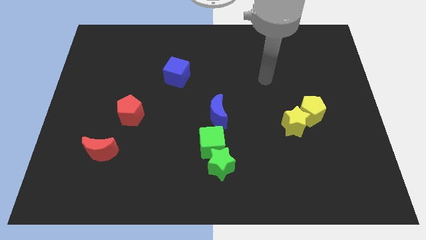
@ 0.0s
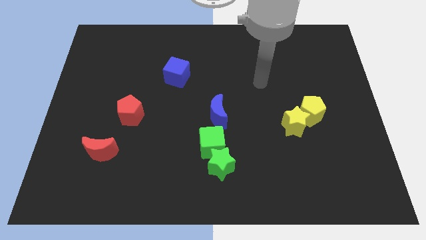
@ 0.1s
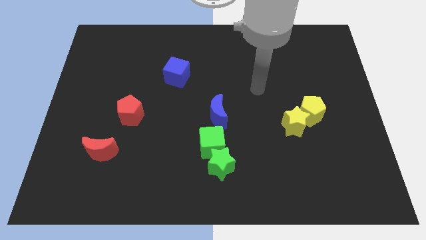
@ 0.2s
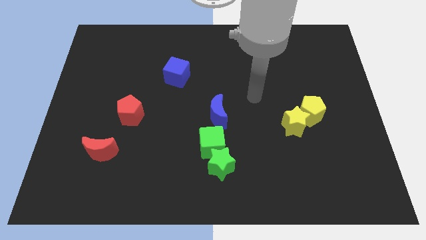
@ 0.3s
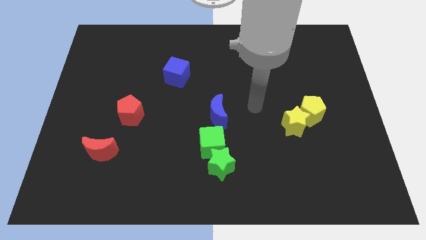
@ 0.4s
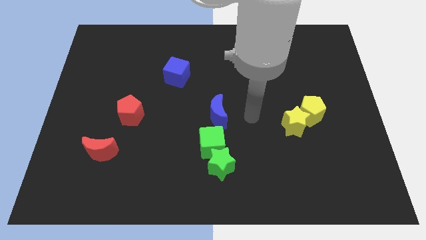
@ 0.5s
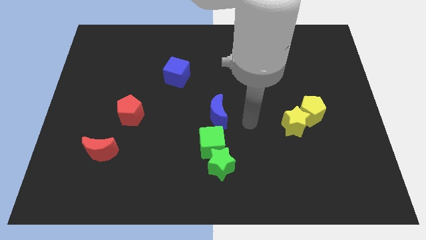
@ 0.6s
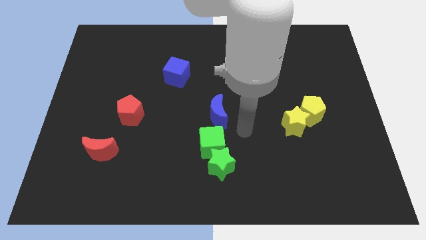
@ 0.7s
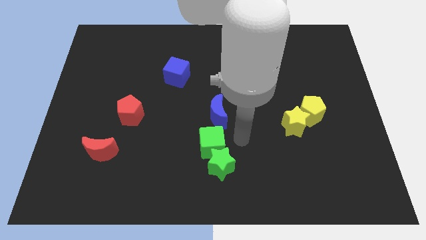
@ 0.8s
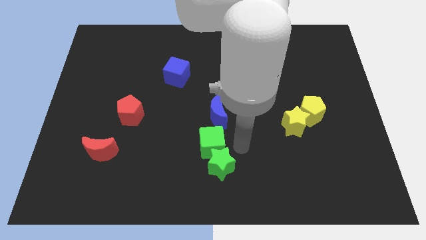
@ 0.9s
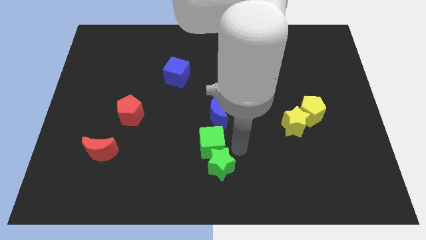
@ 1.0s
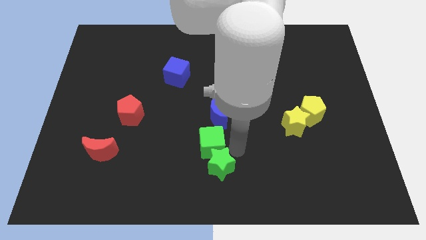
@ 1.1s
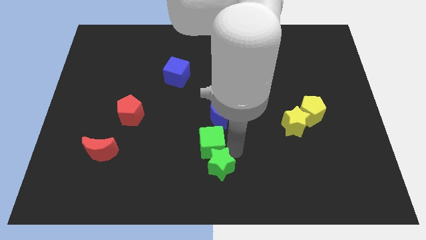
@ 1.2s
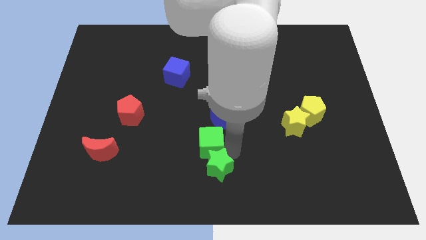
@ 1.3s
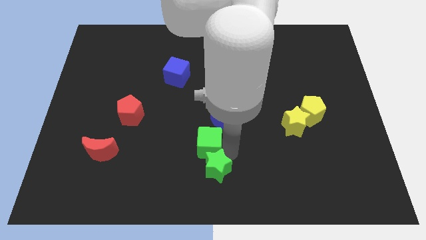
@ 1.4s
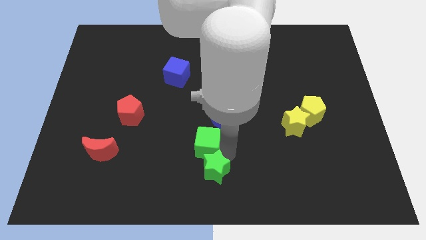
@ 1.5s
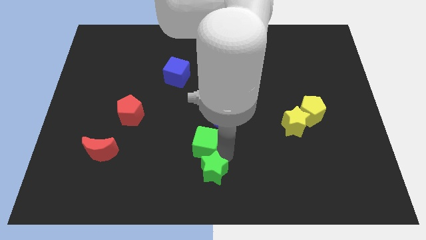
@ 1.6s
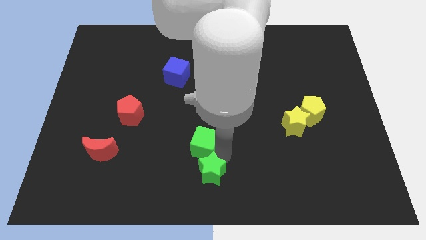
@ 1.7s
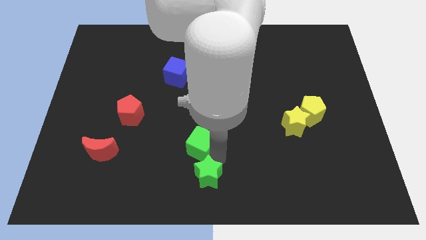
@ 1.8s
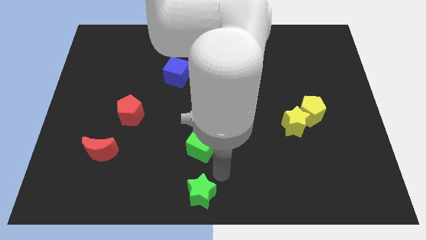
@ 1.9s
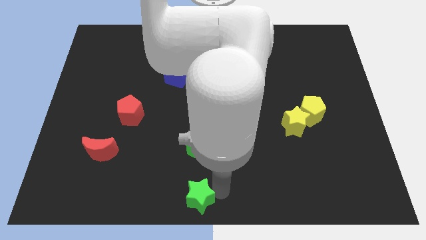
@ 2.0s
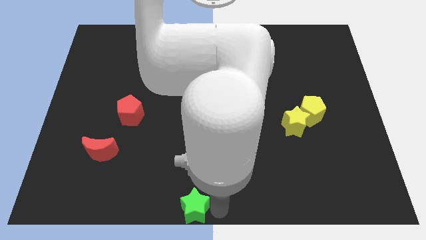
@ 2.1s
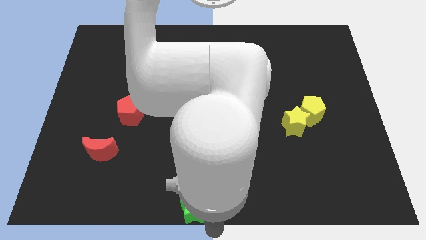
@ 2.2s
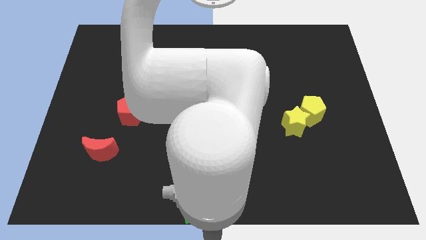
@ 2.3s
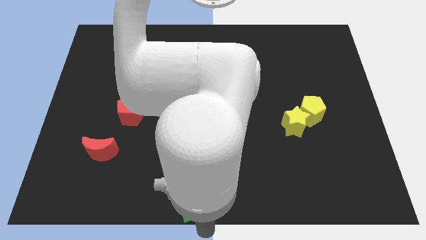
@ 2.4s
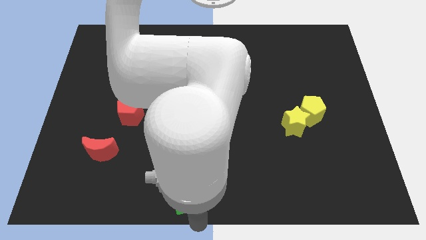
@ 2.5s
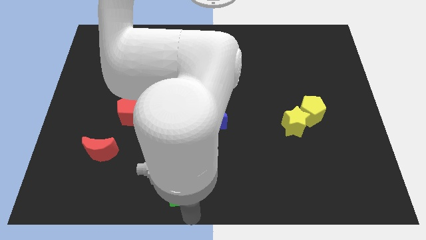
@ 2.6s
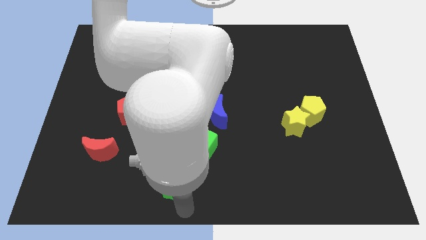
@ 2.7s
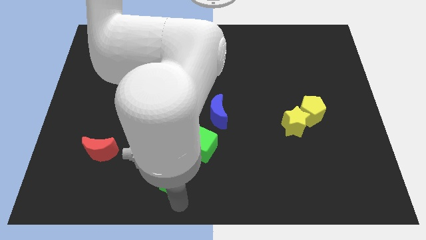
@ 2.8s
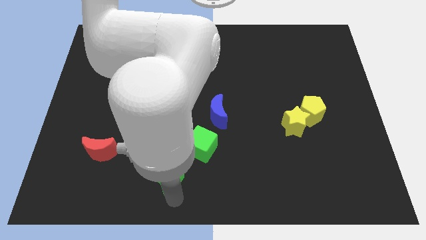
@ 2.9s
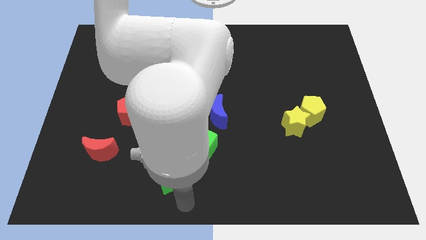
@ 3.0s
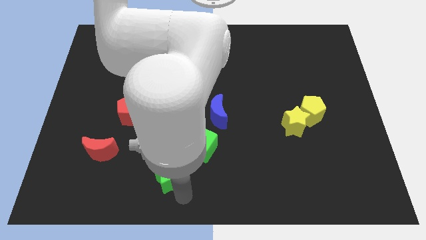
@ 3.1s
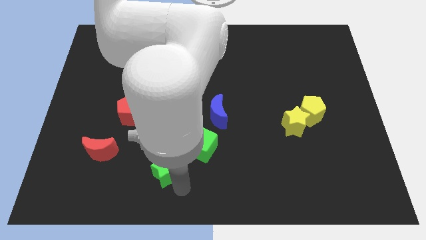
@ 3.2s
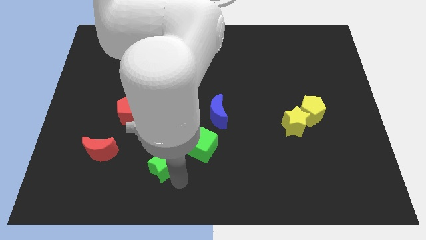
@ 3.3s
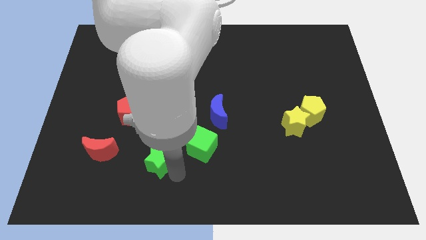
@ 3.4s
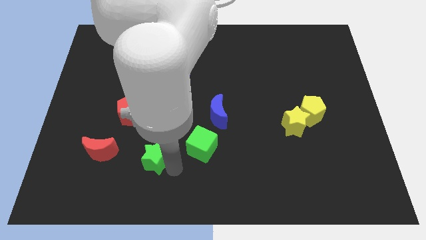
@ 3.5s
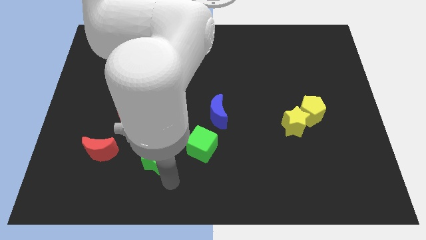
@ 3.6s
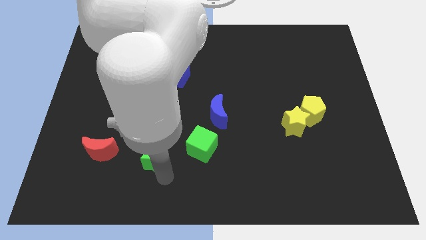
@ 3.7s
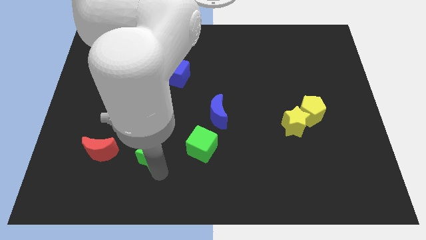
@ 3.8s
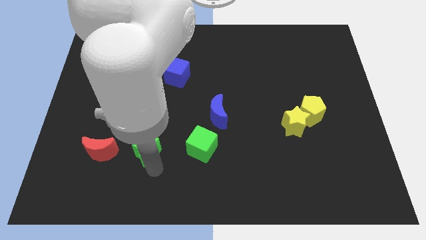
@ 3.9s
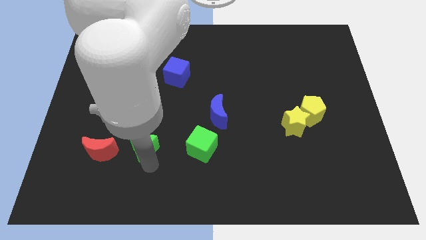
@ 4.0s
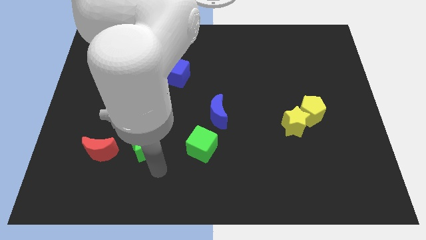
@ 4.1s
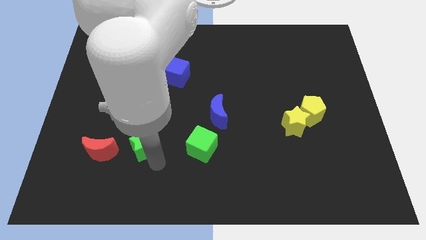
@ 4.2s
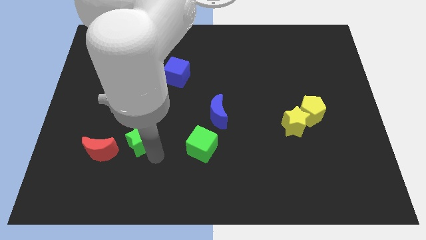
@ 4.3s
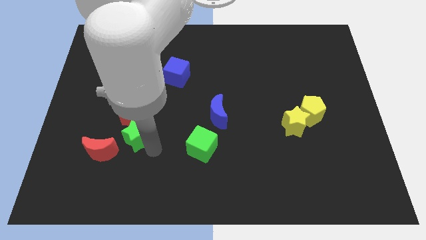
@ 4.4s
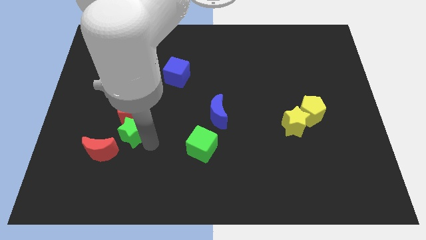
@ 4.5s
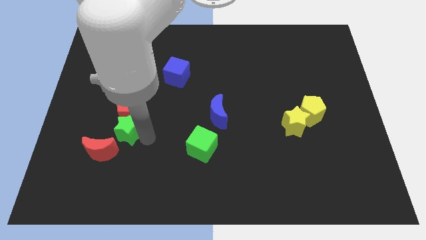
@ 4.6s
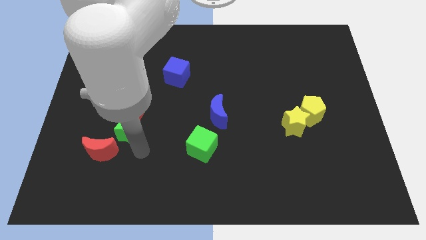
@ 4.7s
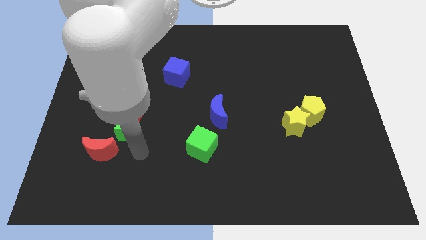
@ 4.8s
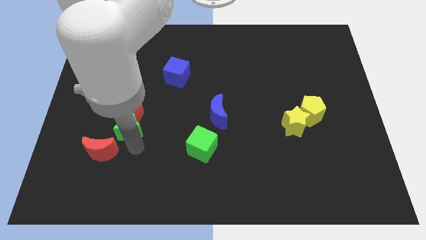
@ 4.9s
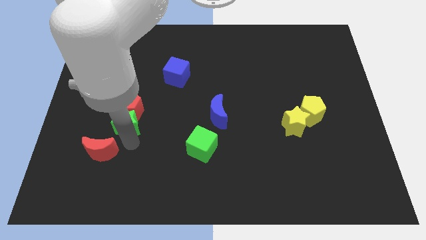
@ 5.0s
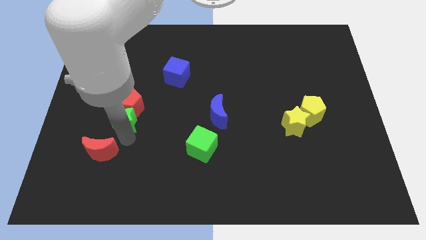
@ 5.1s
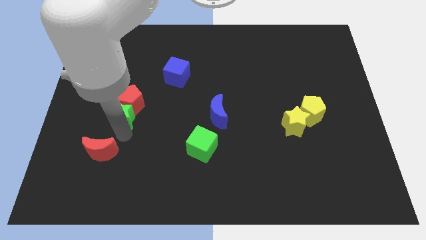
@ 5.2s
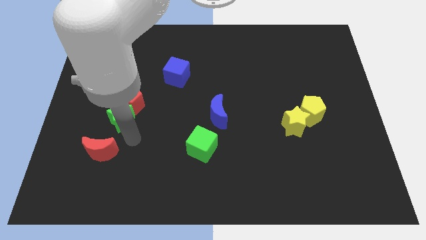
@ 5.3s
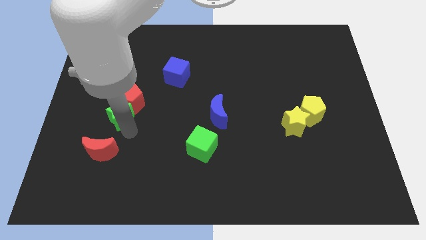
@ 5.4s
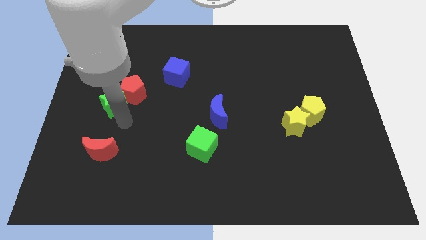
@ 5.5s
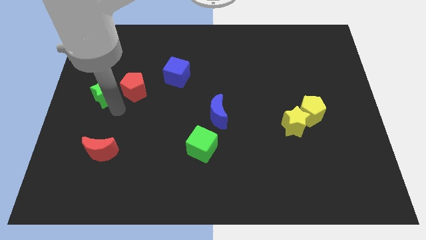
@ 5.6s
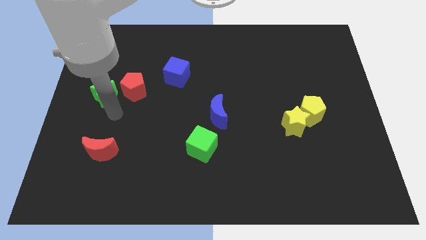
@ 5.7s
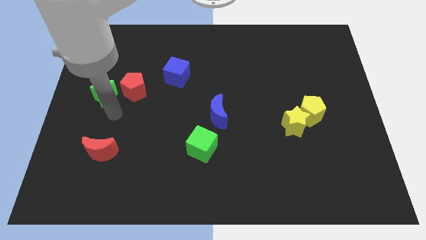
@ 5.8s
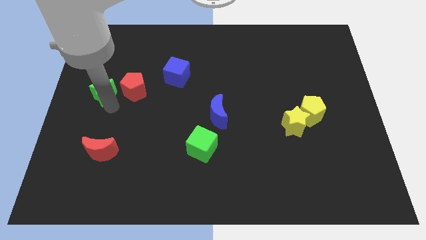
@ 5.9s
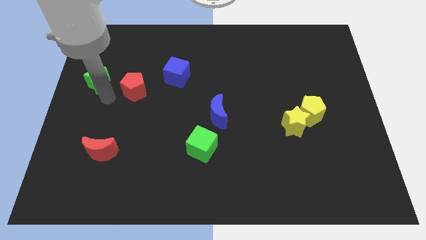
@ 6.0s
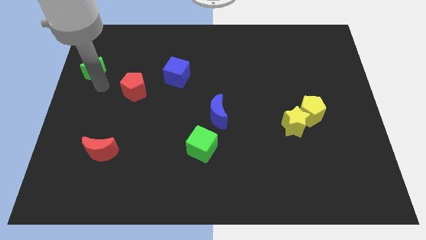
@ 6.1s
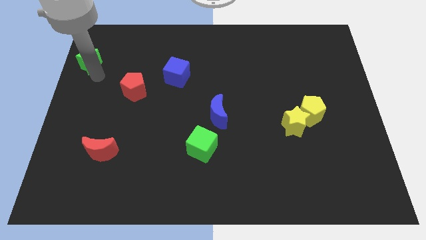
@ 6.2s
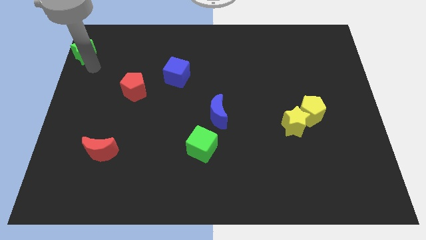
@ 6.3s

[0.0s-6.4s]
move the green star to the top left
